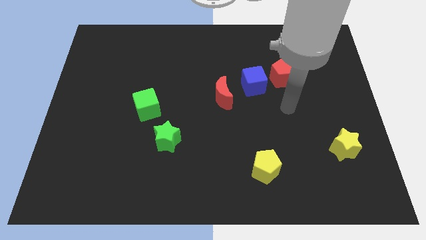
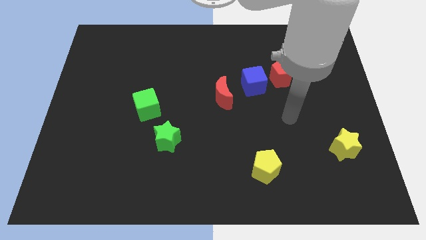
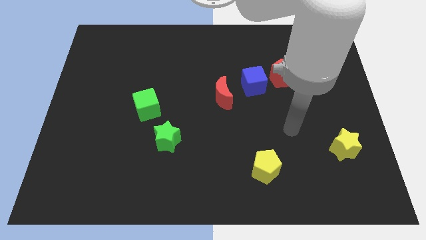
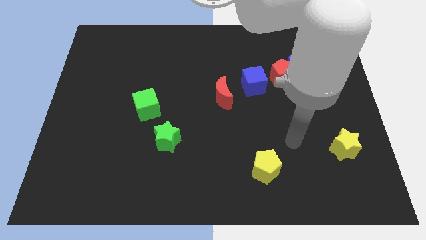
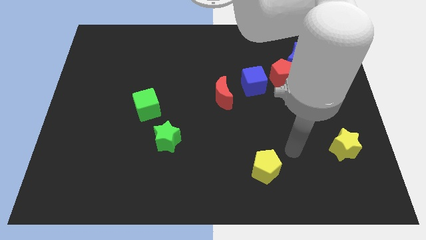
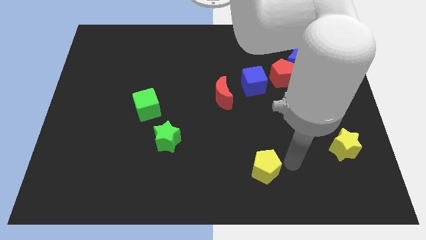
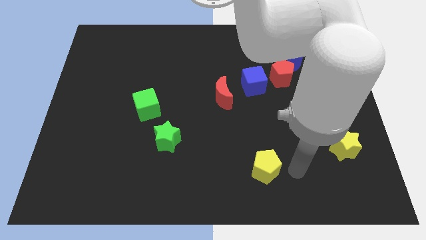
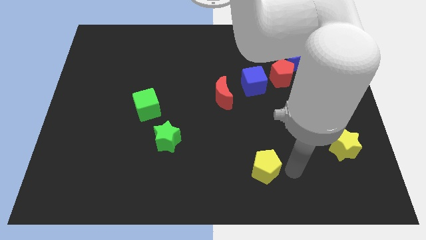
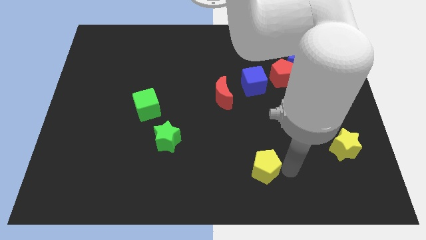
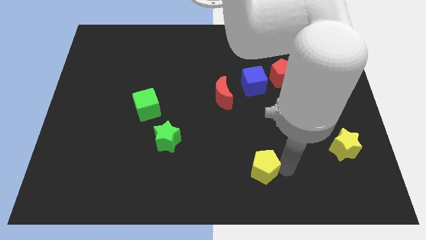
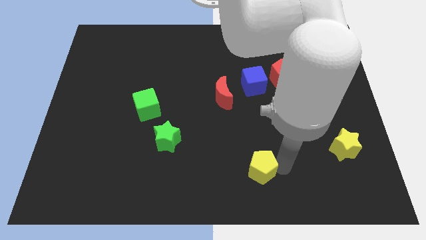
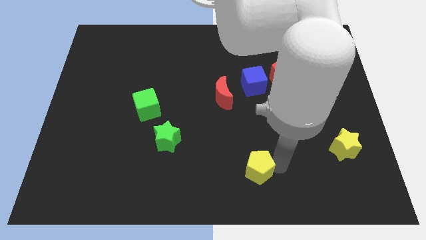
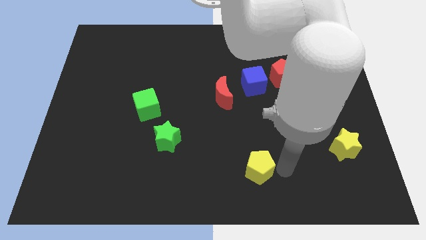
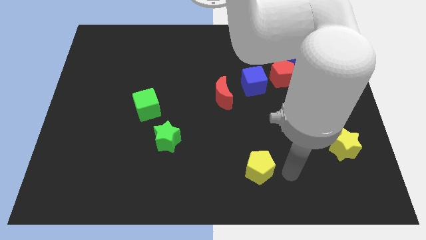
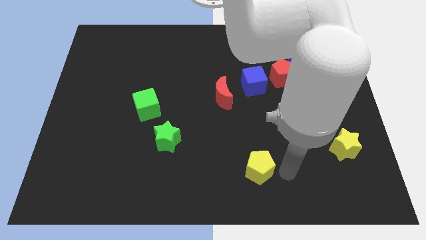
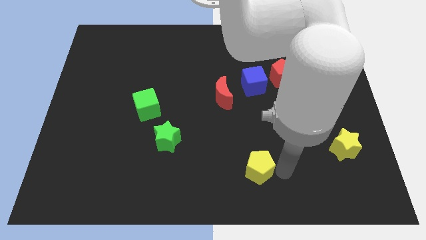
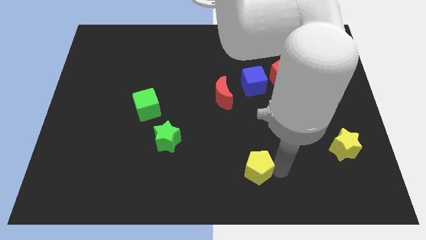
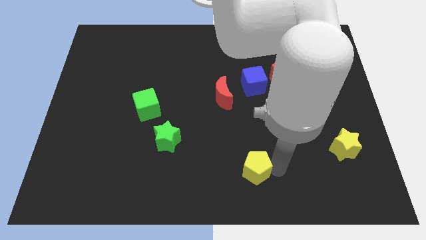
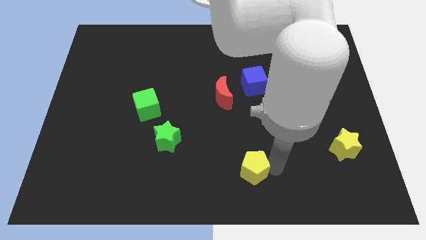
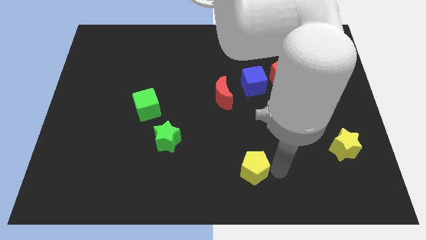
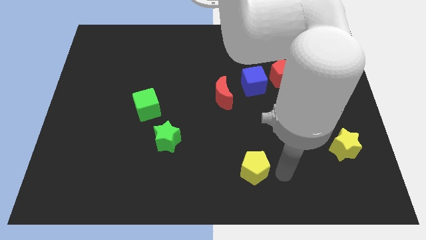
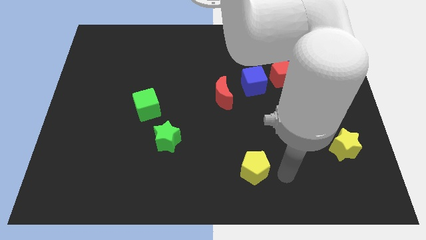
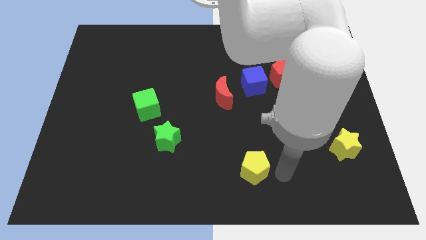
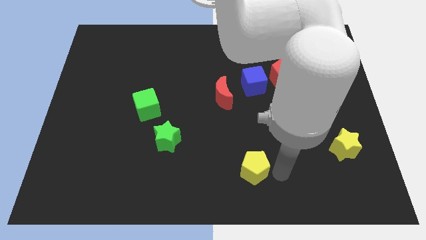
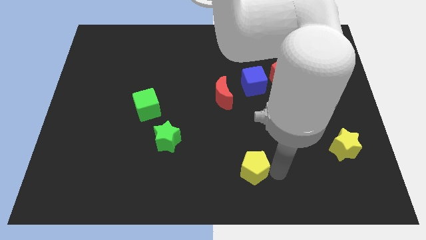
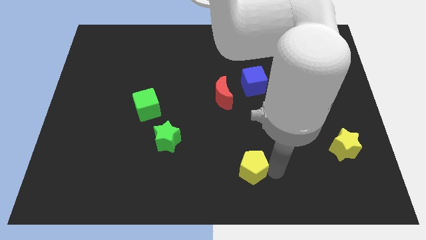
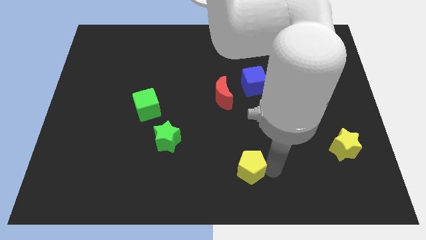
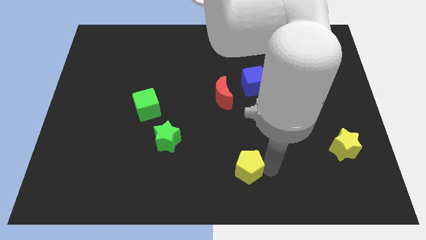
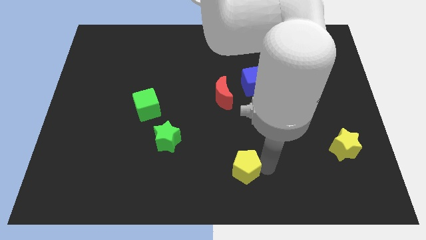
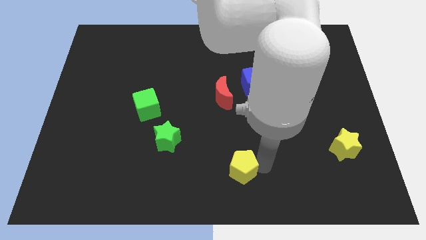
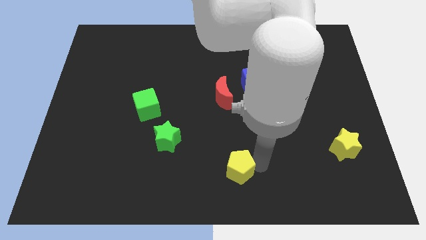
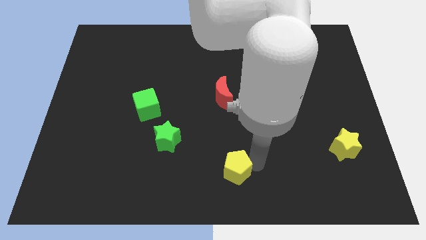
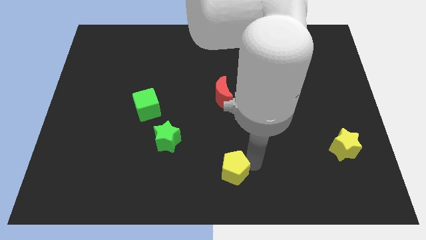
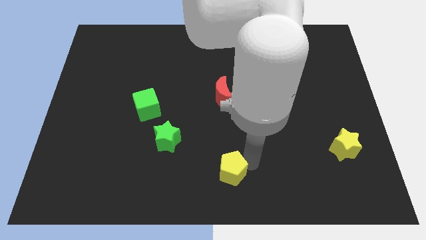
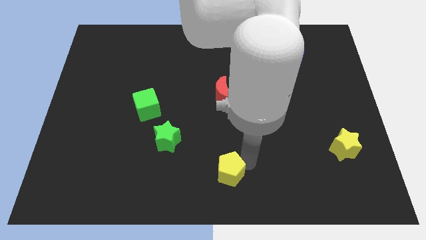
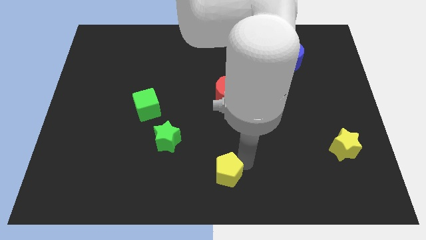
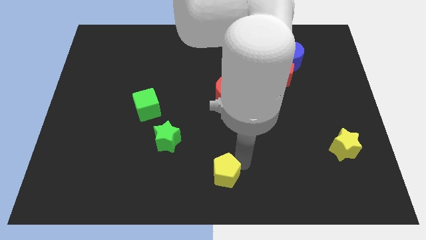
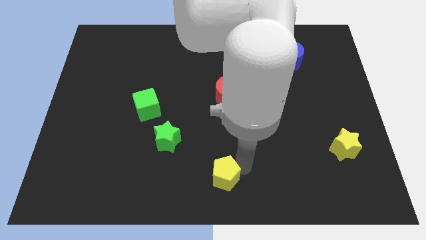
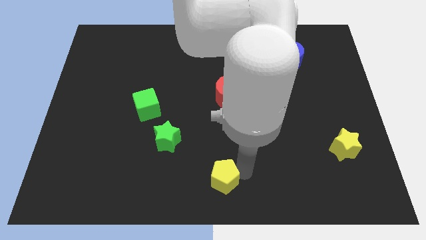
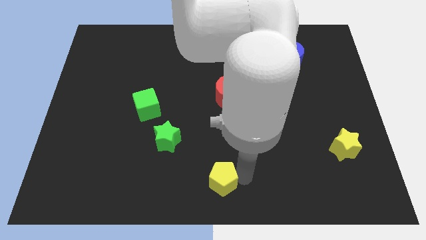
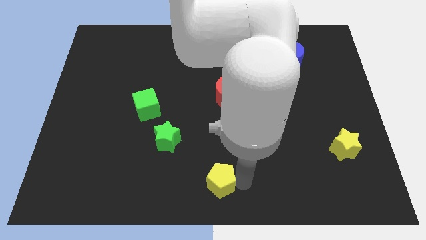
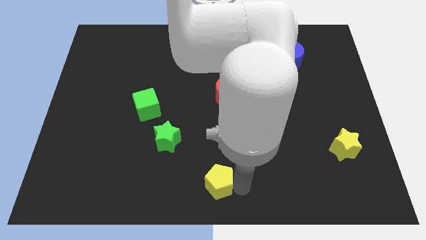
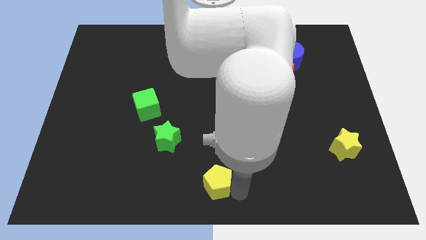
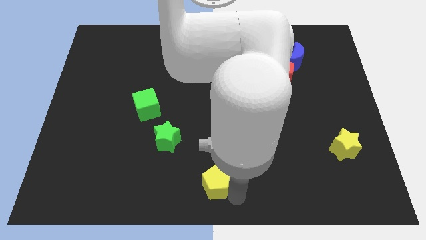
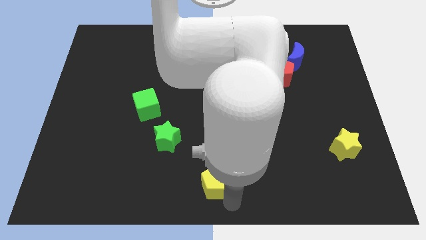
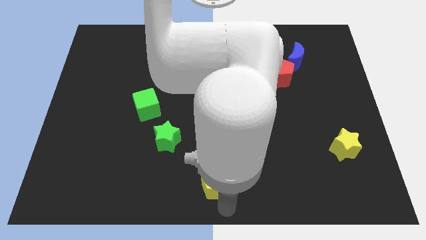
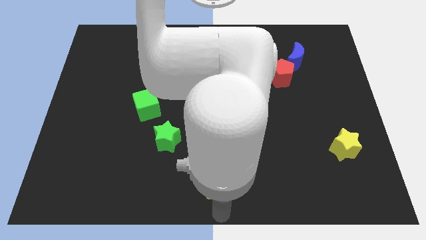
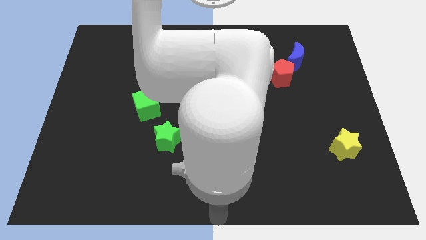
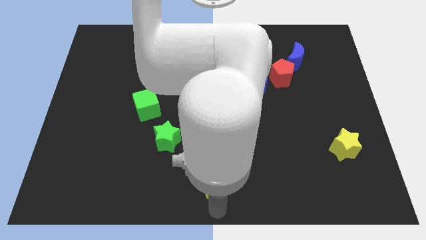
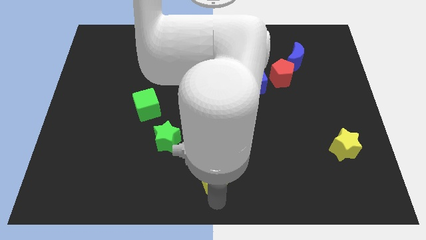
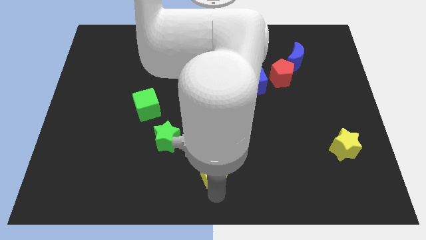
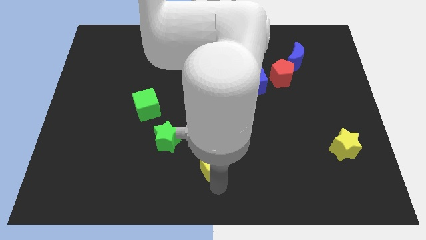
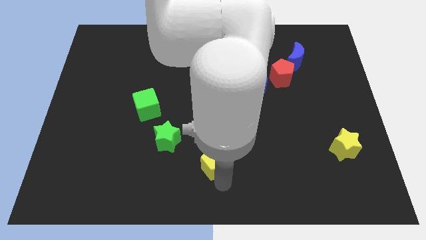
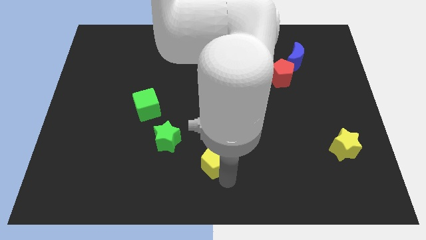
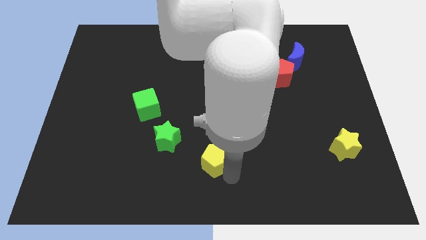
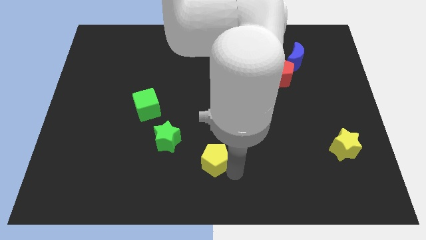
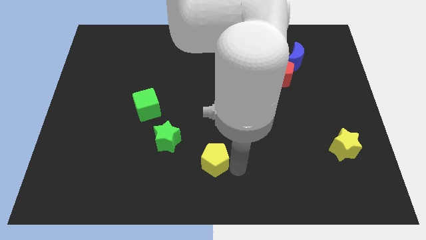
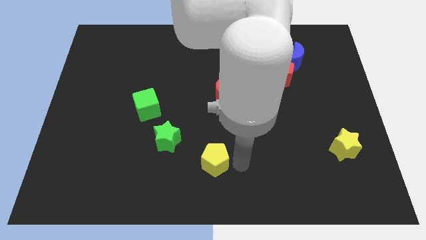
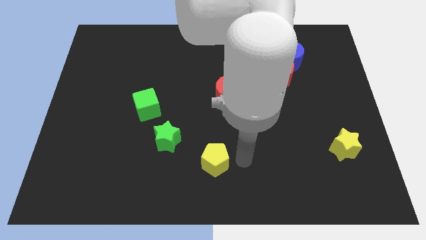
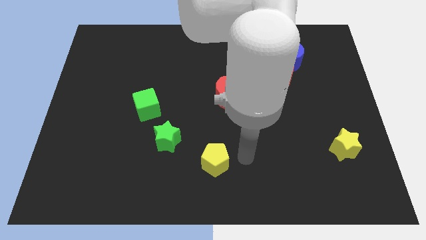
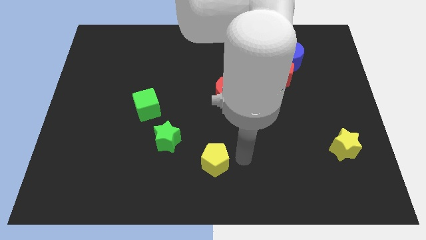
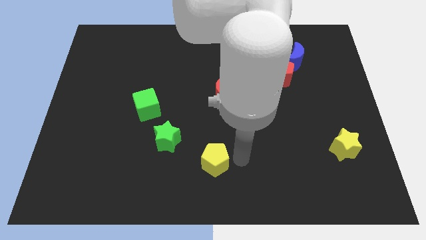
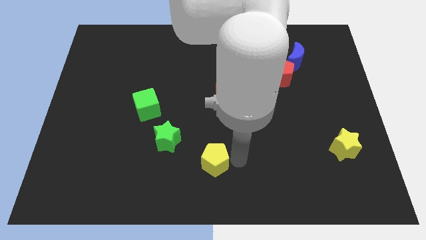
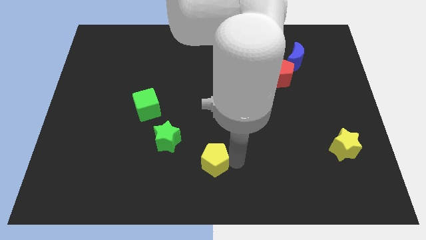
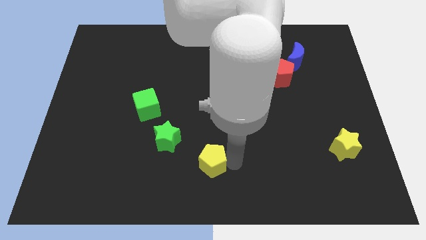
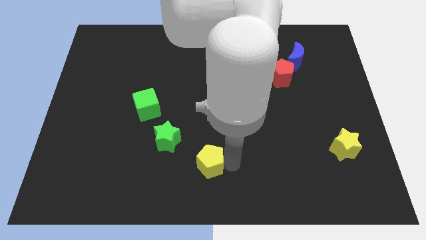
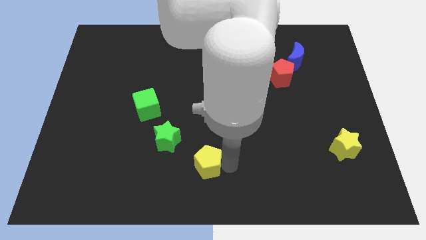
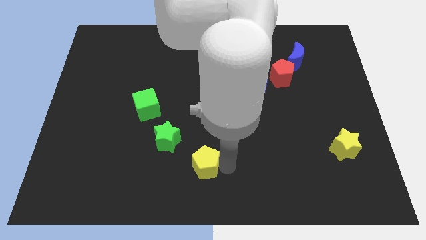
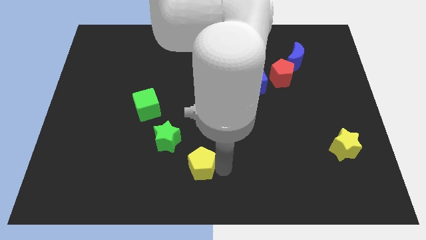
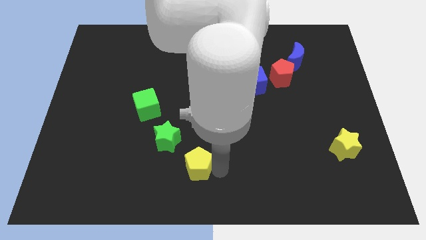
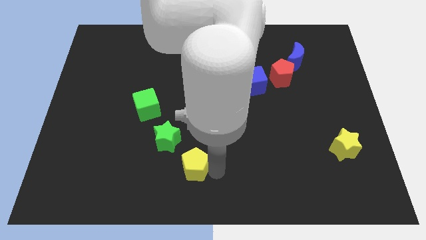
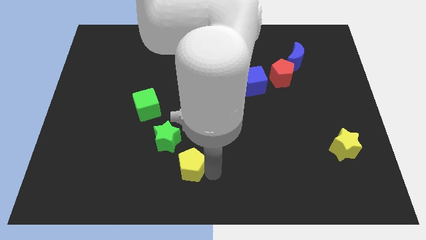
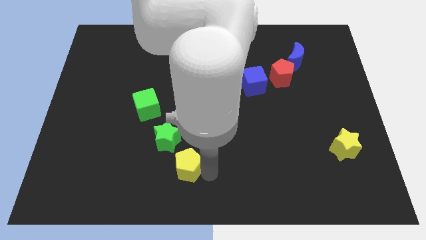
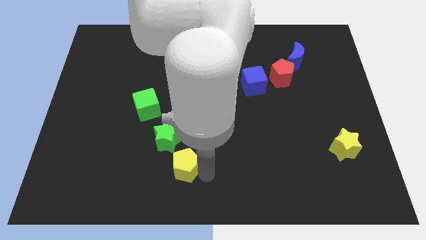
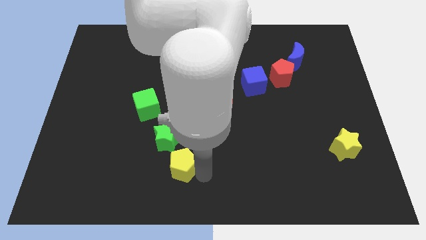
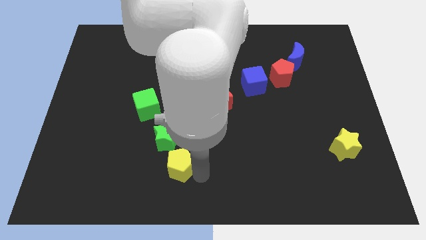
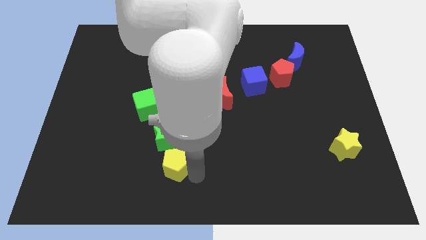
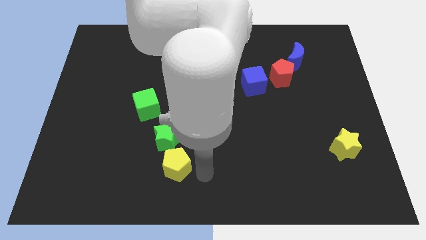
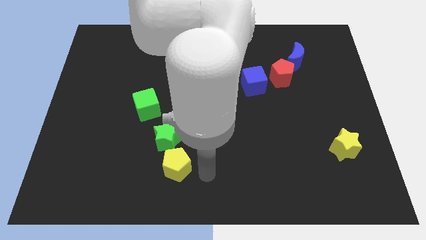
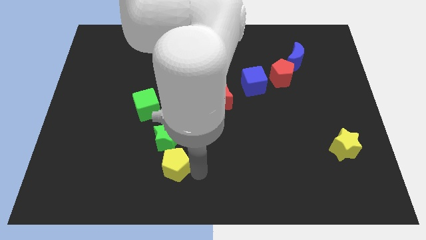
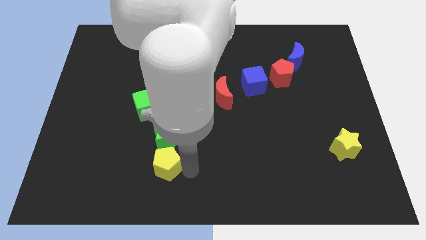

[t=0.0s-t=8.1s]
slide the yellow pentagon to the bottom left side of the green star
